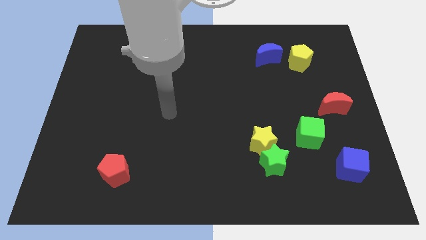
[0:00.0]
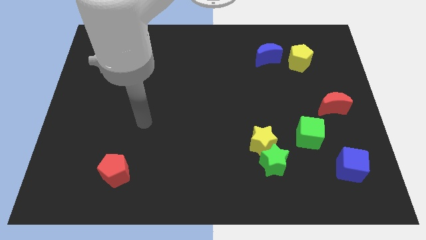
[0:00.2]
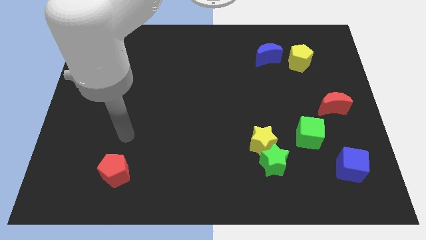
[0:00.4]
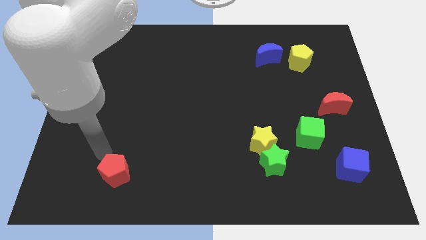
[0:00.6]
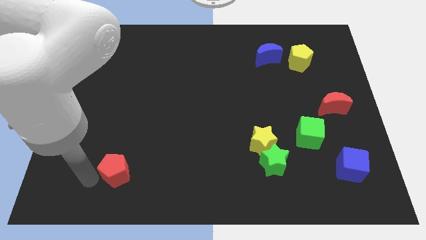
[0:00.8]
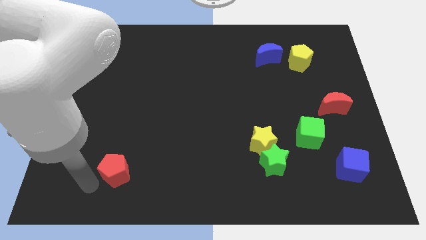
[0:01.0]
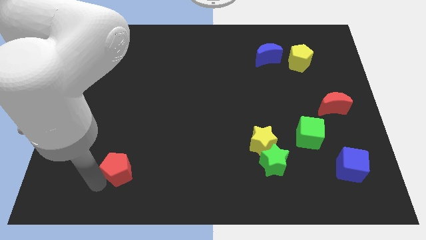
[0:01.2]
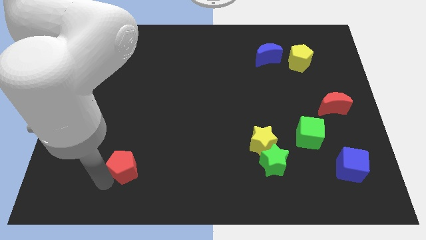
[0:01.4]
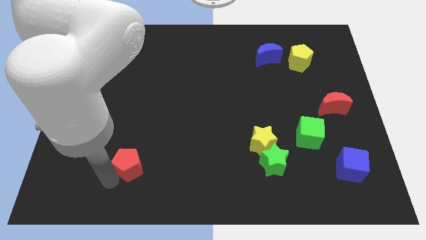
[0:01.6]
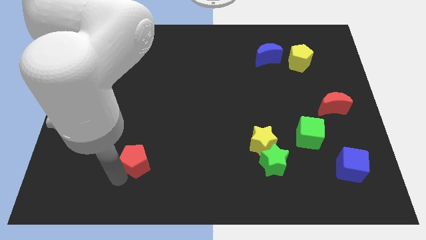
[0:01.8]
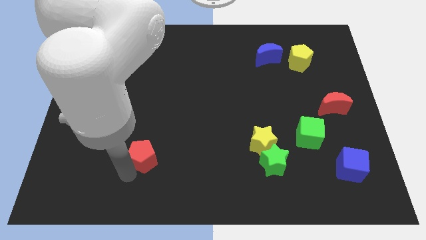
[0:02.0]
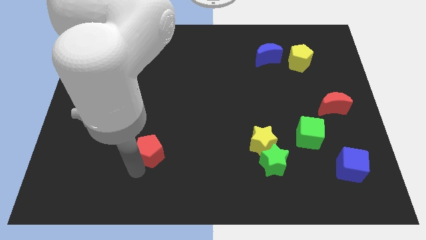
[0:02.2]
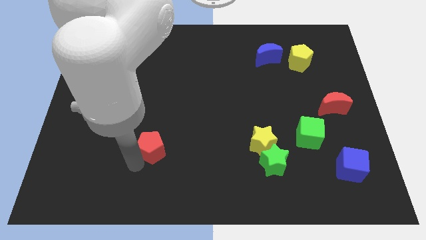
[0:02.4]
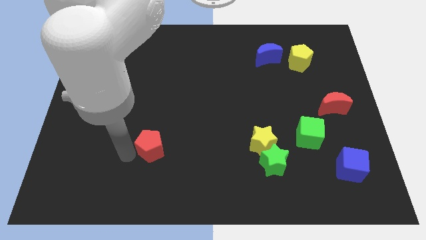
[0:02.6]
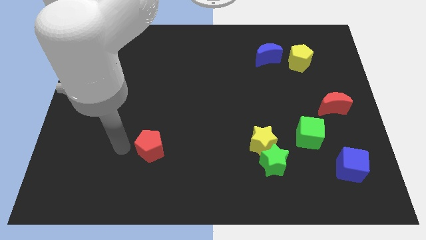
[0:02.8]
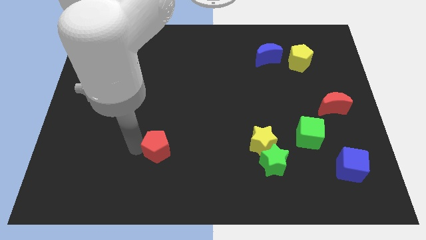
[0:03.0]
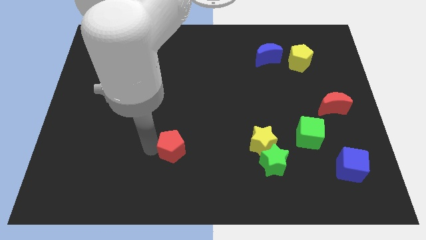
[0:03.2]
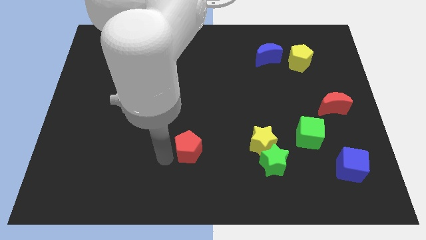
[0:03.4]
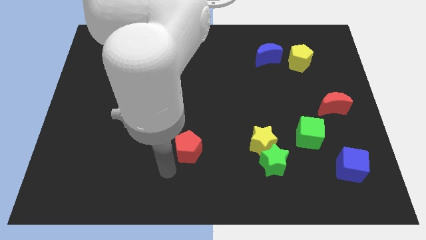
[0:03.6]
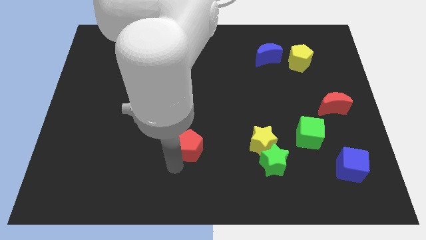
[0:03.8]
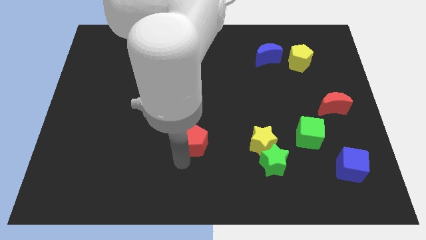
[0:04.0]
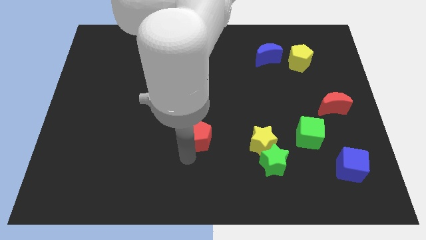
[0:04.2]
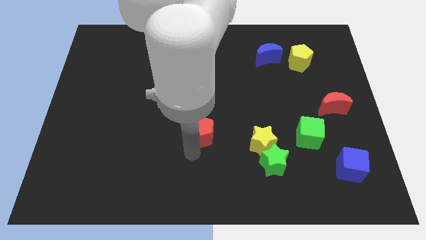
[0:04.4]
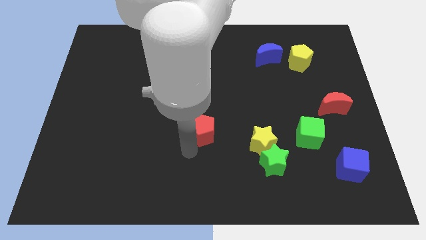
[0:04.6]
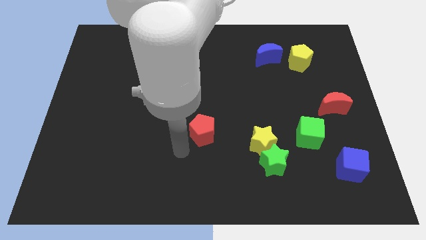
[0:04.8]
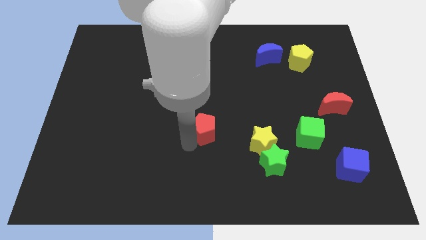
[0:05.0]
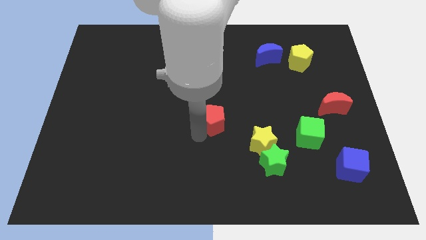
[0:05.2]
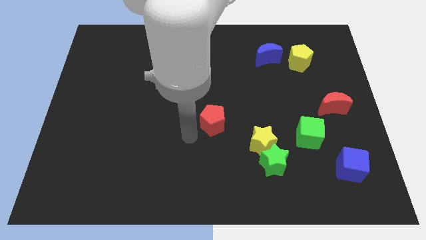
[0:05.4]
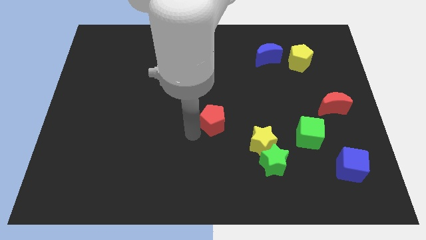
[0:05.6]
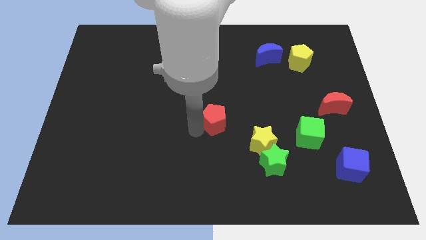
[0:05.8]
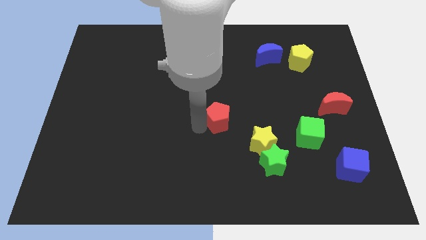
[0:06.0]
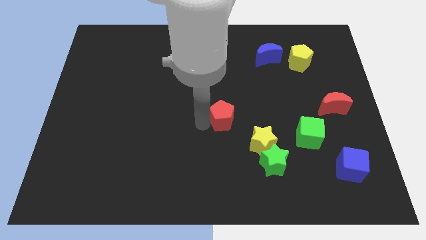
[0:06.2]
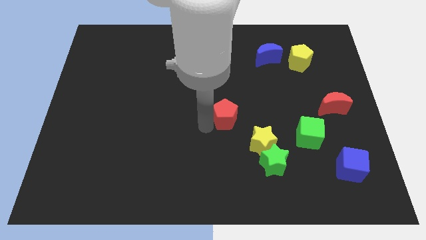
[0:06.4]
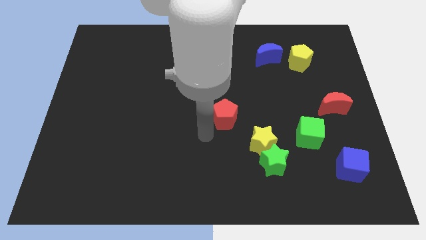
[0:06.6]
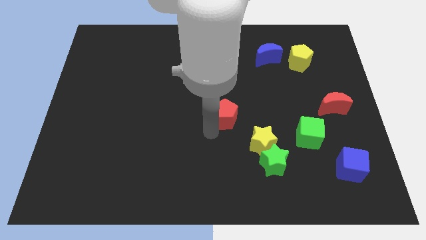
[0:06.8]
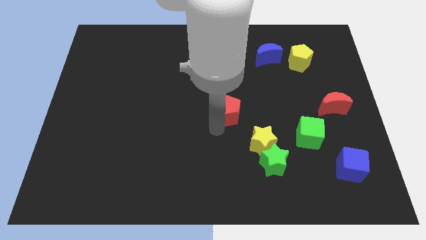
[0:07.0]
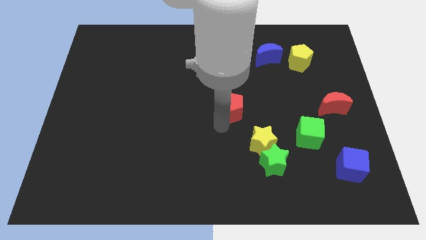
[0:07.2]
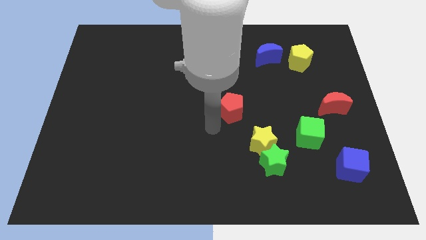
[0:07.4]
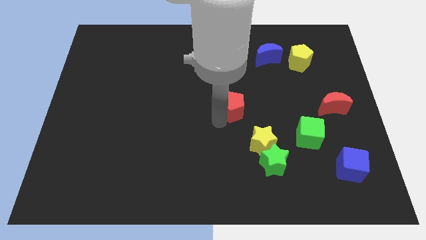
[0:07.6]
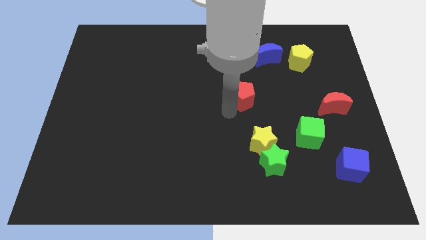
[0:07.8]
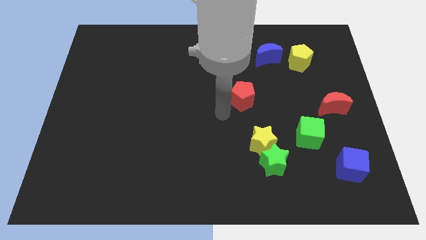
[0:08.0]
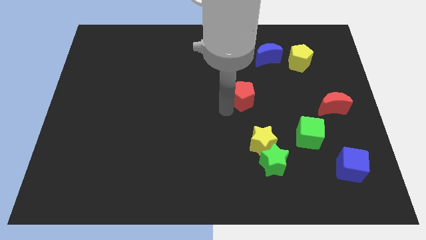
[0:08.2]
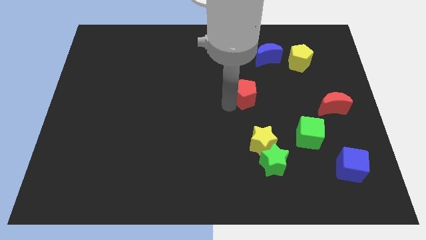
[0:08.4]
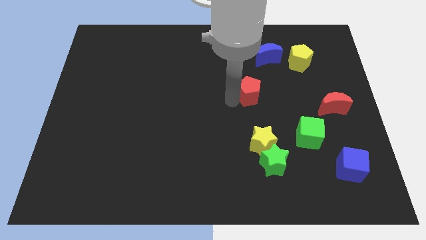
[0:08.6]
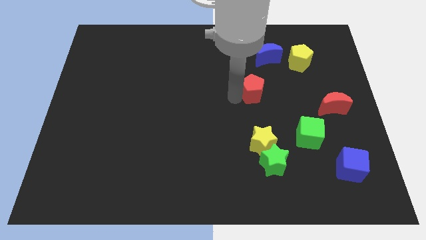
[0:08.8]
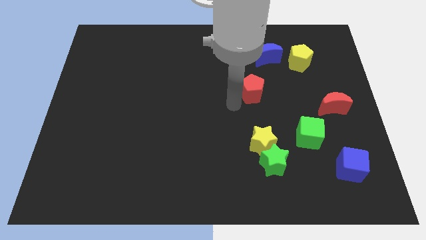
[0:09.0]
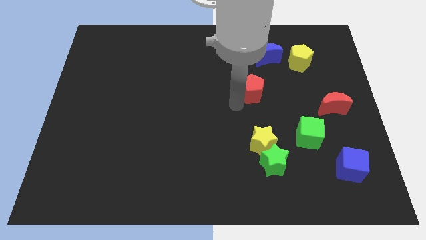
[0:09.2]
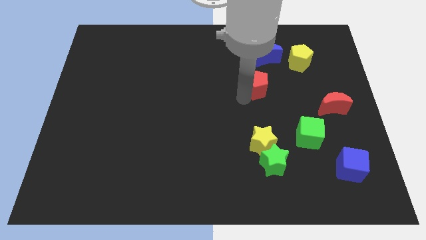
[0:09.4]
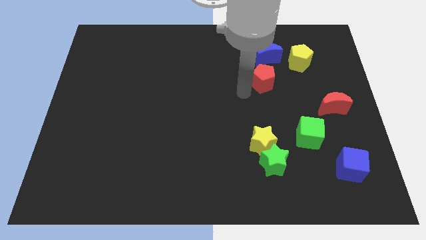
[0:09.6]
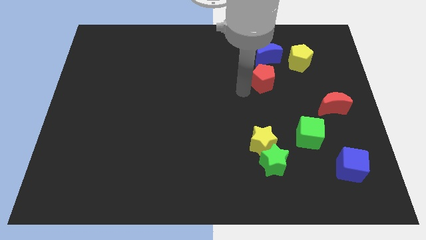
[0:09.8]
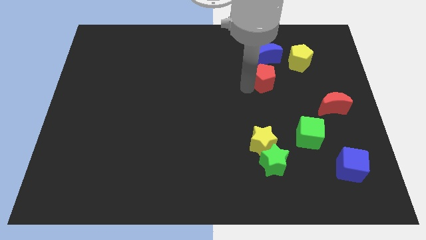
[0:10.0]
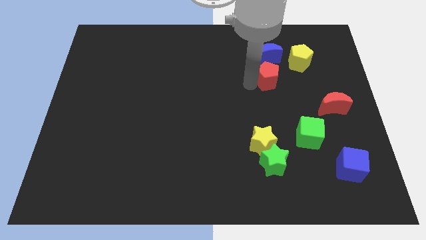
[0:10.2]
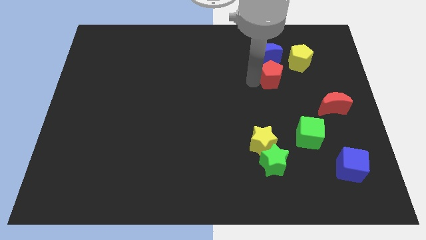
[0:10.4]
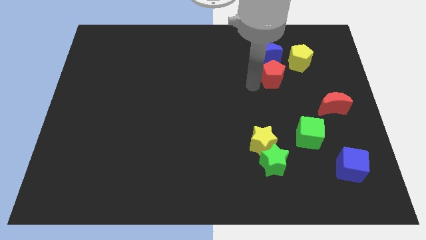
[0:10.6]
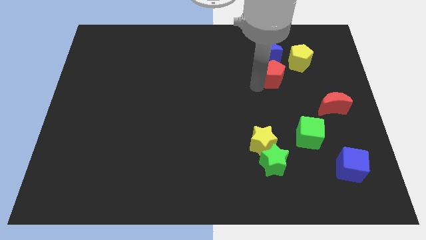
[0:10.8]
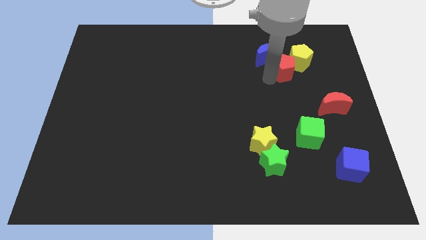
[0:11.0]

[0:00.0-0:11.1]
move the red pentagon to the yellow pentagon

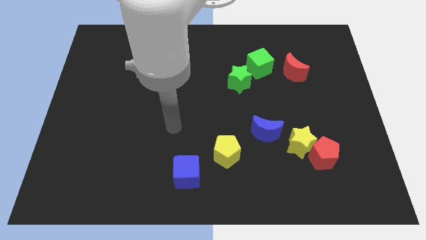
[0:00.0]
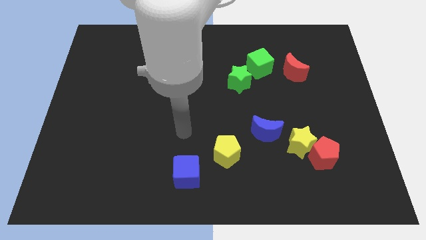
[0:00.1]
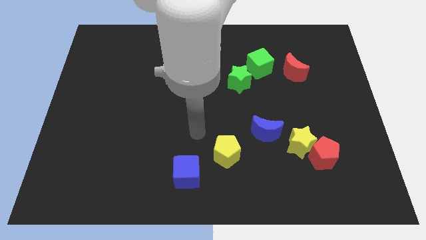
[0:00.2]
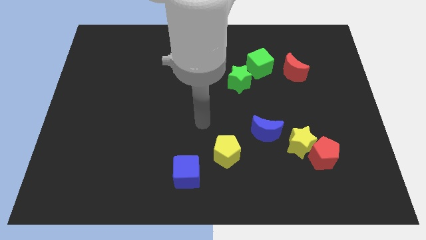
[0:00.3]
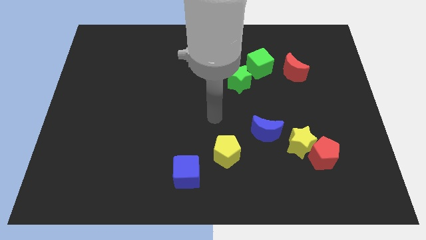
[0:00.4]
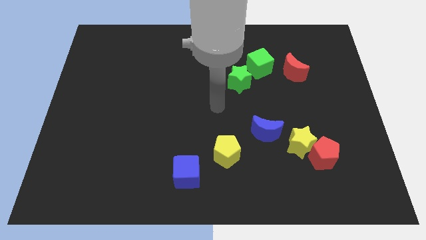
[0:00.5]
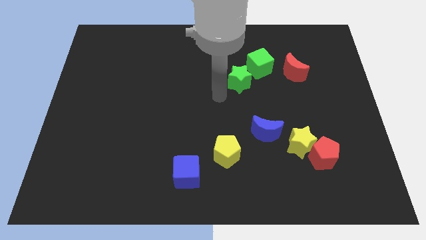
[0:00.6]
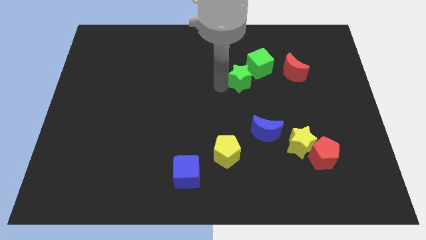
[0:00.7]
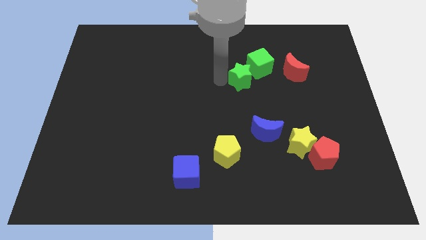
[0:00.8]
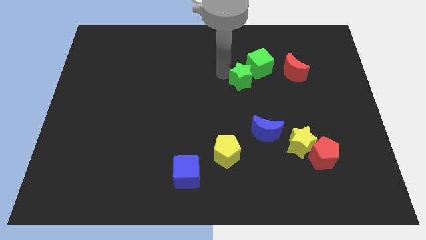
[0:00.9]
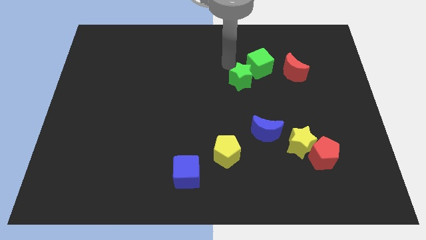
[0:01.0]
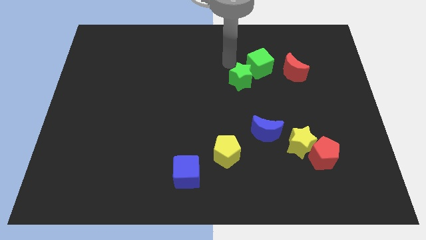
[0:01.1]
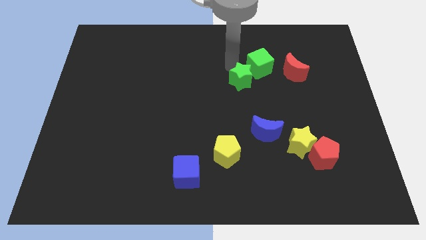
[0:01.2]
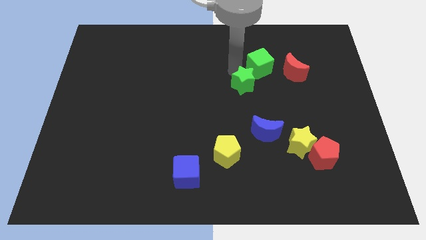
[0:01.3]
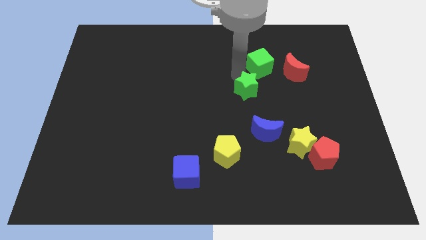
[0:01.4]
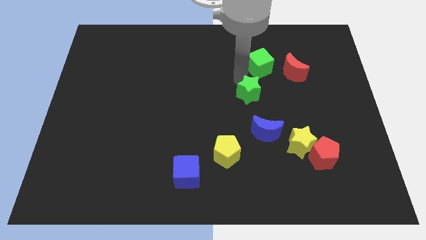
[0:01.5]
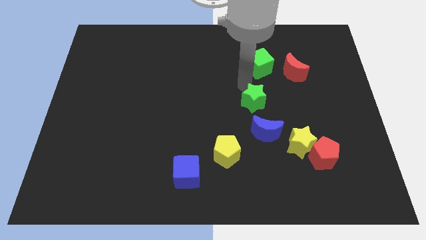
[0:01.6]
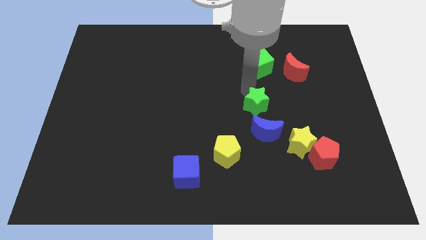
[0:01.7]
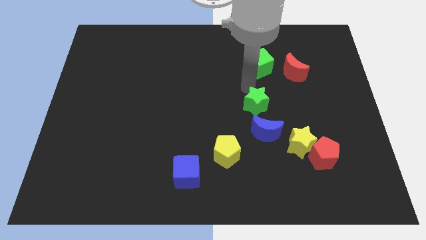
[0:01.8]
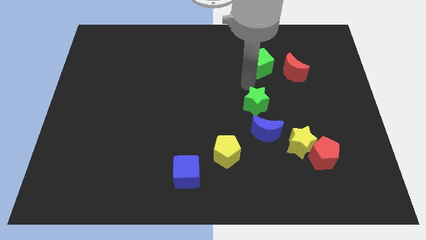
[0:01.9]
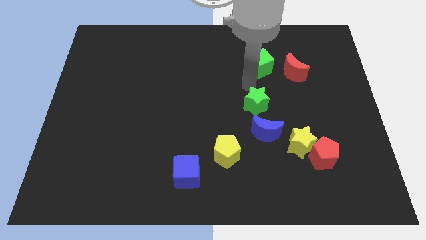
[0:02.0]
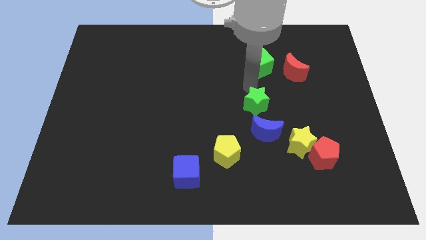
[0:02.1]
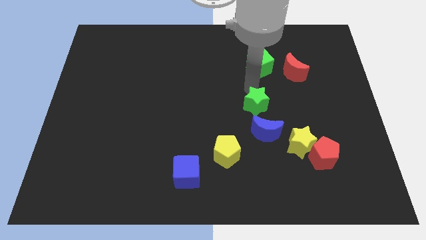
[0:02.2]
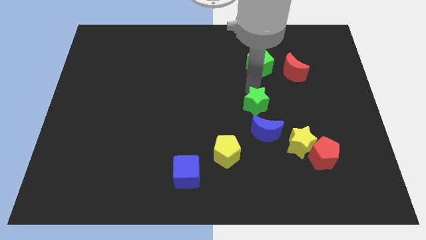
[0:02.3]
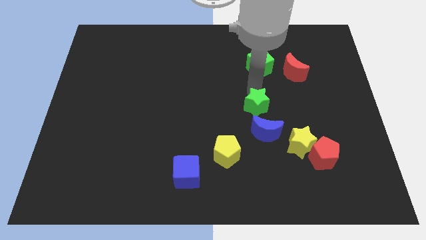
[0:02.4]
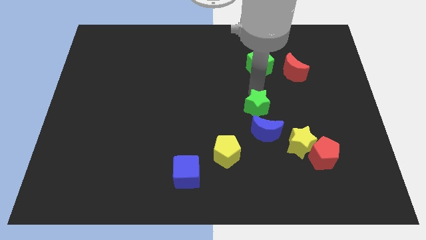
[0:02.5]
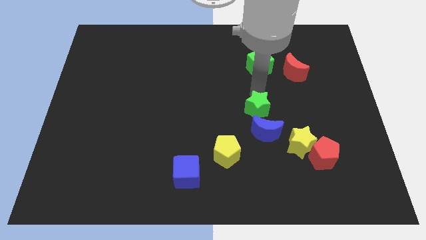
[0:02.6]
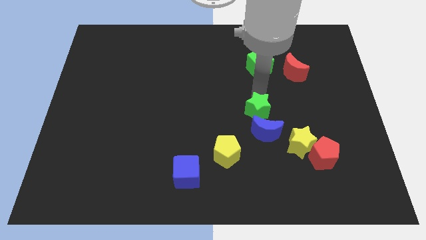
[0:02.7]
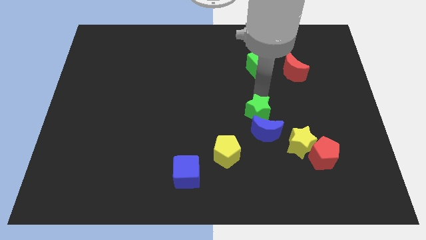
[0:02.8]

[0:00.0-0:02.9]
slide the green star next to the blue moon
